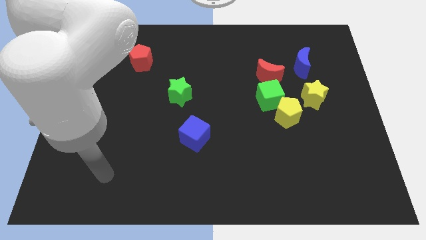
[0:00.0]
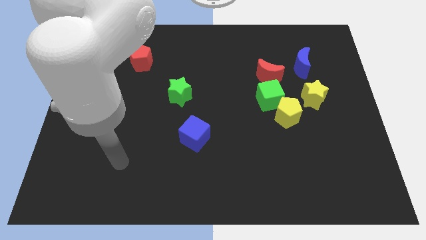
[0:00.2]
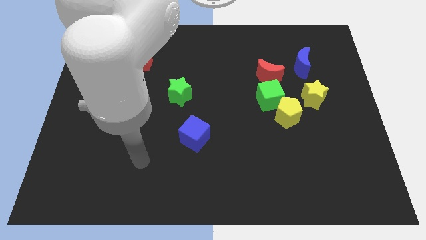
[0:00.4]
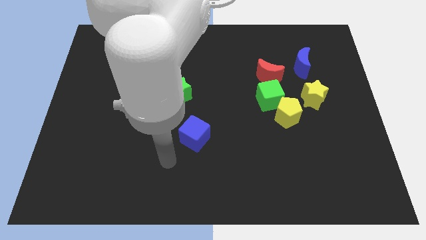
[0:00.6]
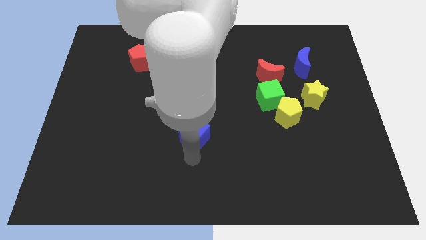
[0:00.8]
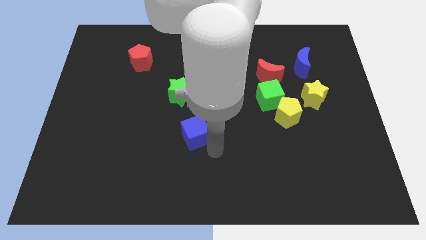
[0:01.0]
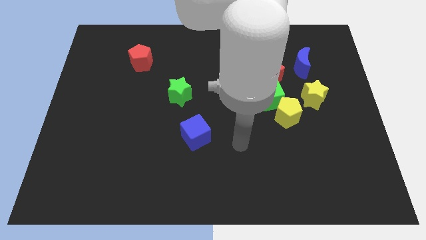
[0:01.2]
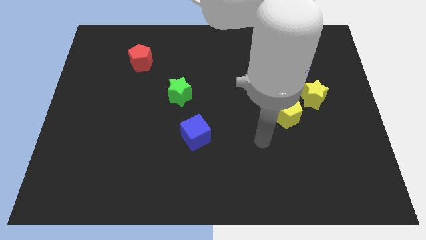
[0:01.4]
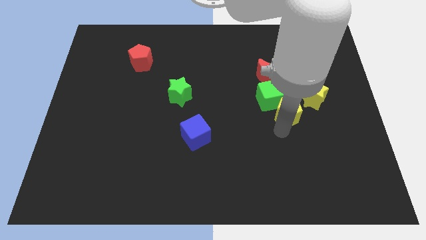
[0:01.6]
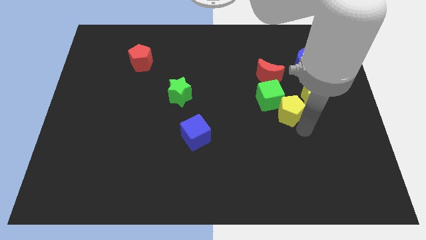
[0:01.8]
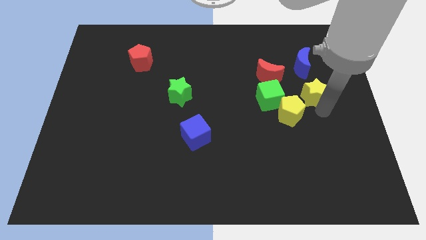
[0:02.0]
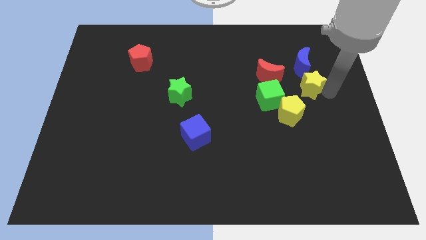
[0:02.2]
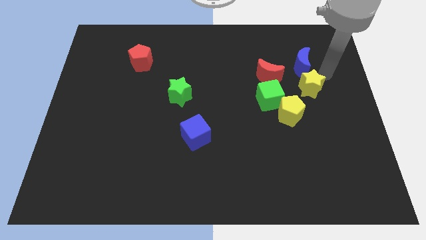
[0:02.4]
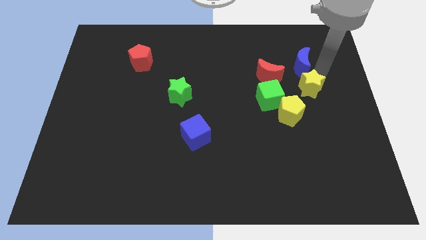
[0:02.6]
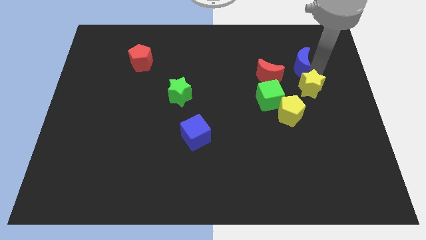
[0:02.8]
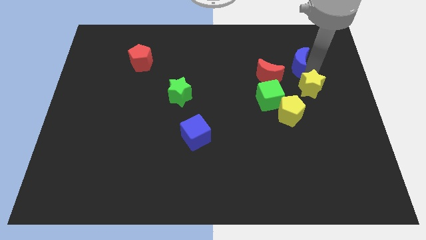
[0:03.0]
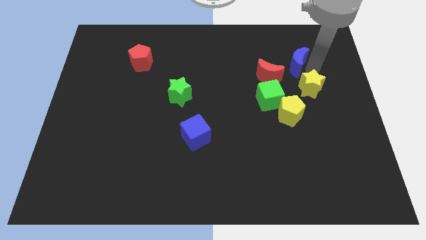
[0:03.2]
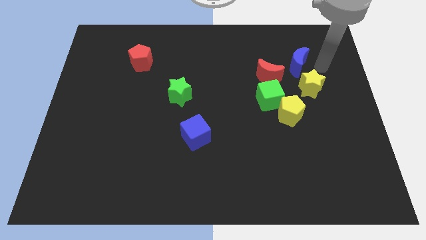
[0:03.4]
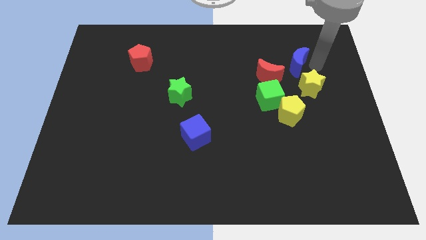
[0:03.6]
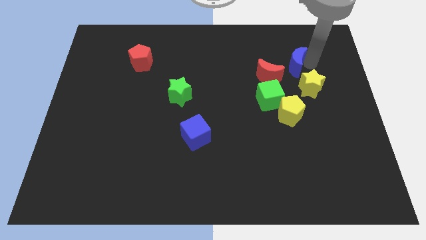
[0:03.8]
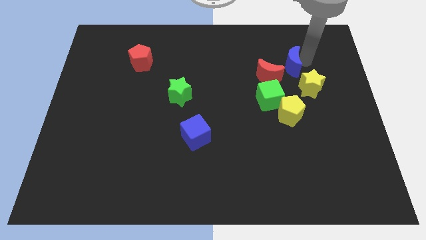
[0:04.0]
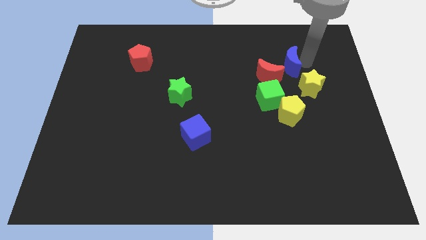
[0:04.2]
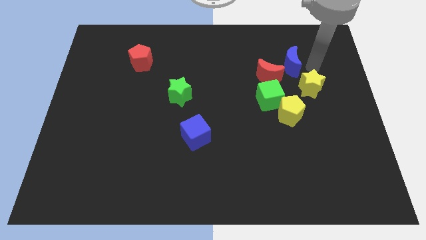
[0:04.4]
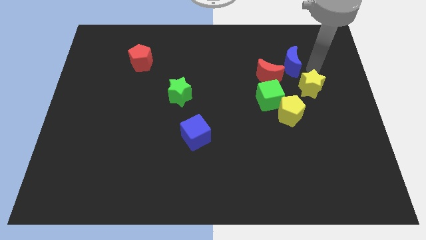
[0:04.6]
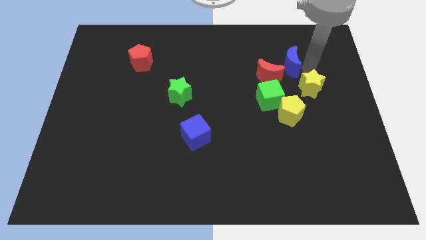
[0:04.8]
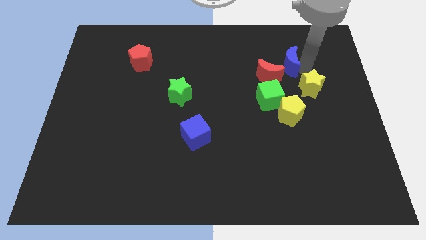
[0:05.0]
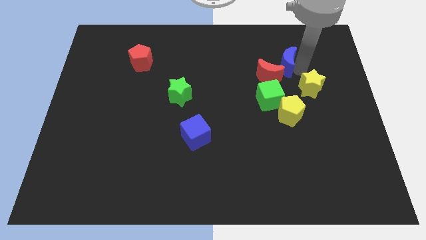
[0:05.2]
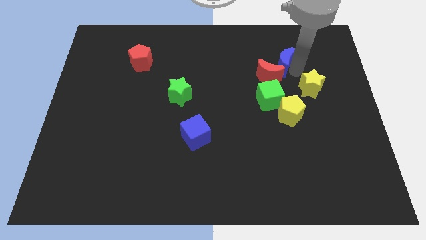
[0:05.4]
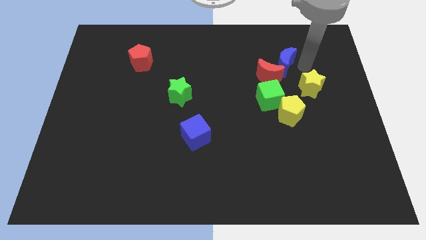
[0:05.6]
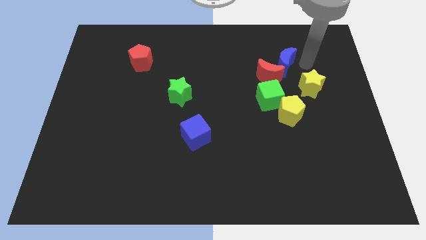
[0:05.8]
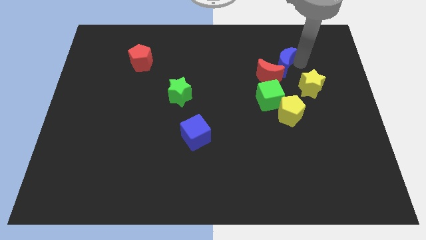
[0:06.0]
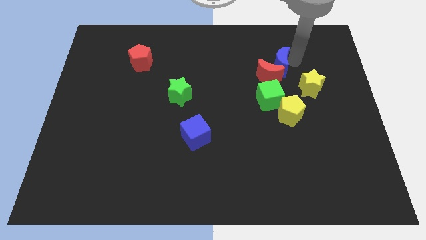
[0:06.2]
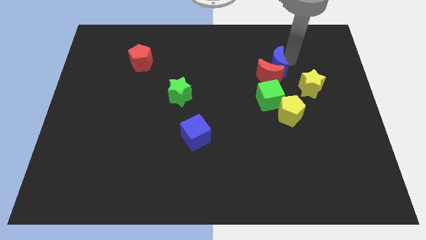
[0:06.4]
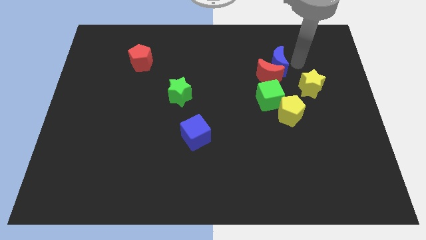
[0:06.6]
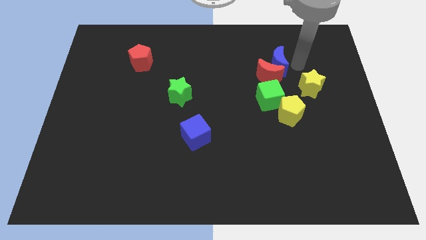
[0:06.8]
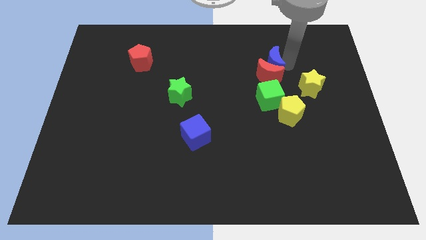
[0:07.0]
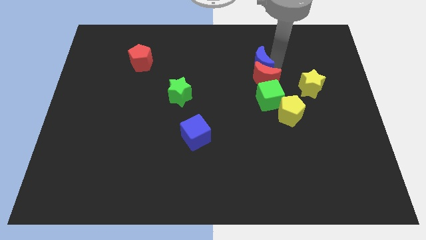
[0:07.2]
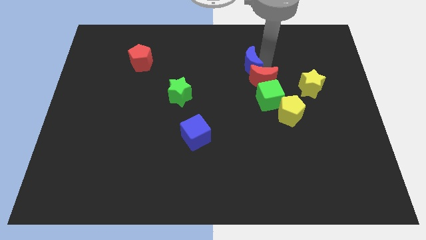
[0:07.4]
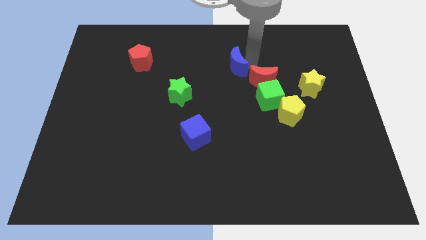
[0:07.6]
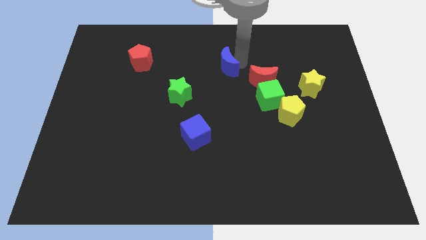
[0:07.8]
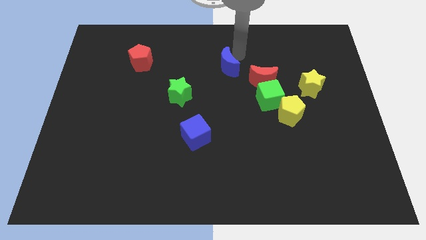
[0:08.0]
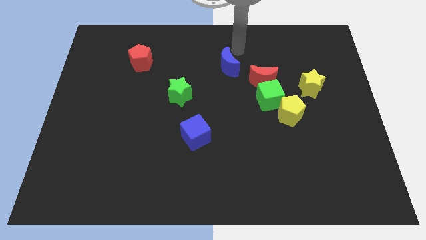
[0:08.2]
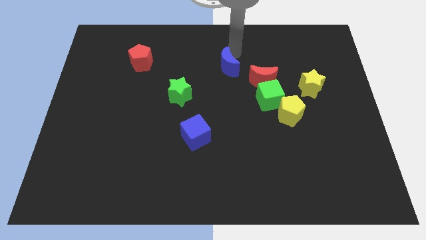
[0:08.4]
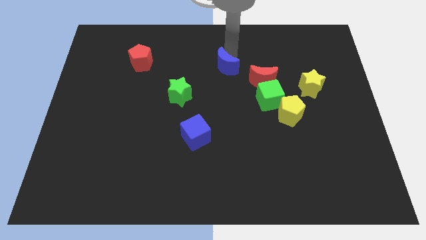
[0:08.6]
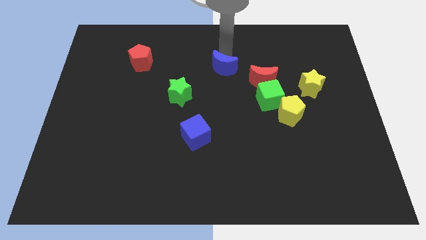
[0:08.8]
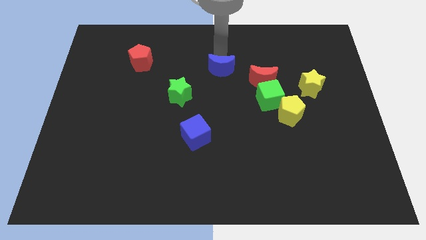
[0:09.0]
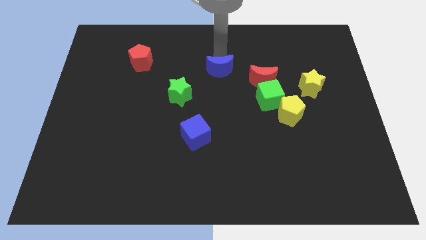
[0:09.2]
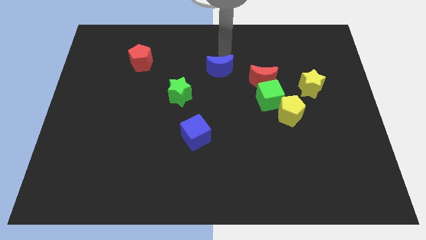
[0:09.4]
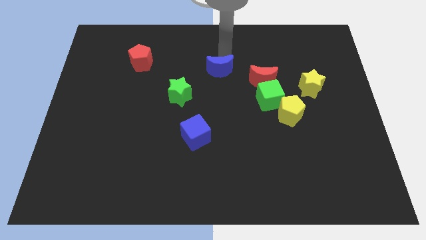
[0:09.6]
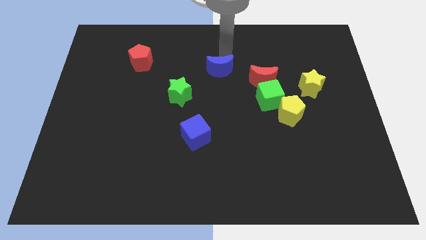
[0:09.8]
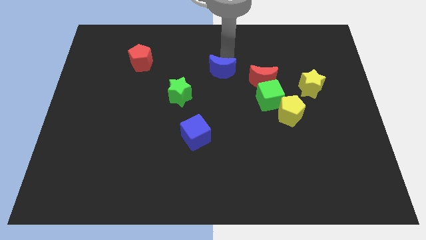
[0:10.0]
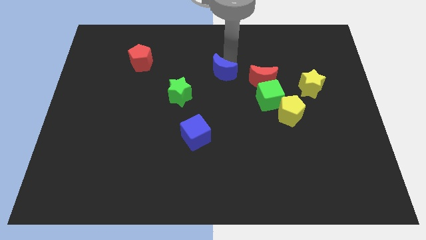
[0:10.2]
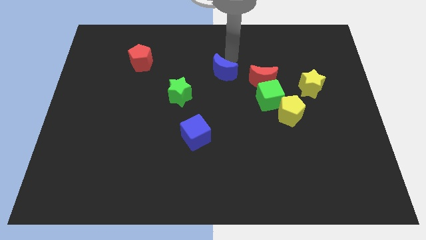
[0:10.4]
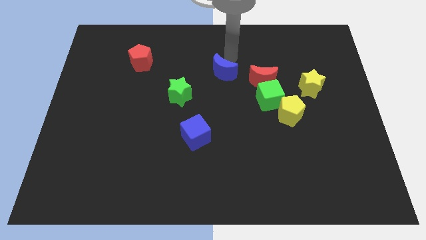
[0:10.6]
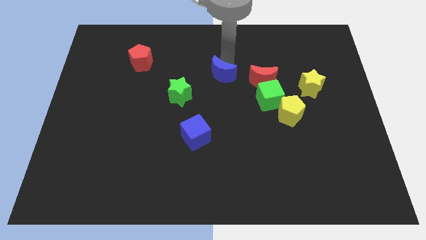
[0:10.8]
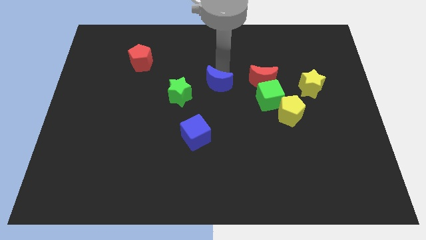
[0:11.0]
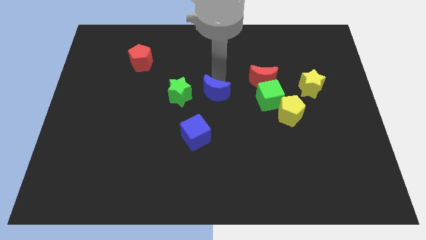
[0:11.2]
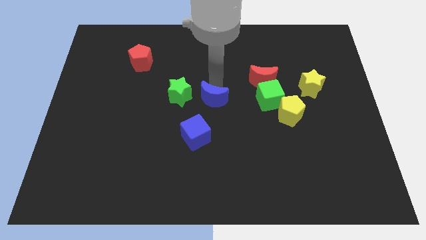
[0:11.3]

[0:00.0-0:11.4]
slide the blue moon down and left

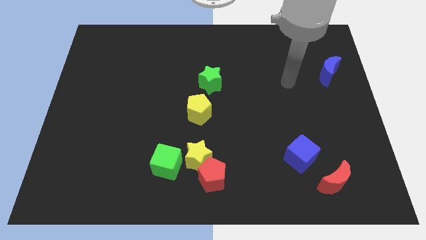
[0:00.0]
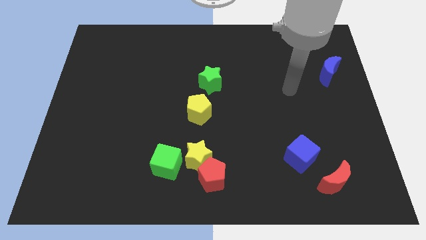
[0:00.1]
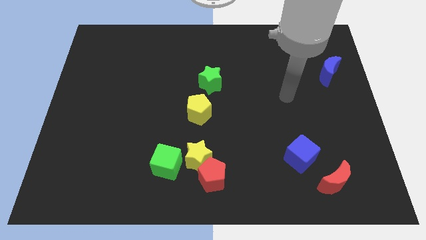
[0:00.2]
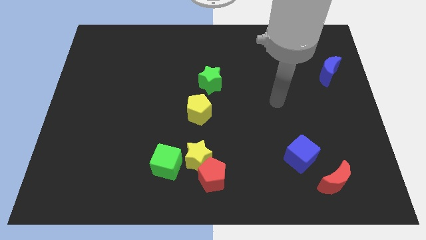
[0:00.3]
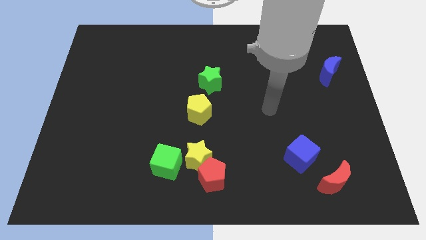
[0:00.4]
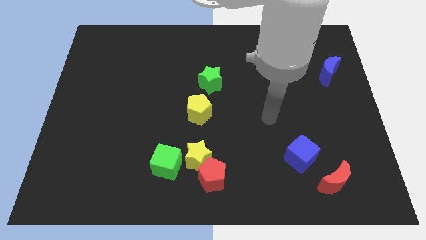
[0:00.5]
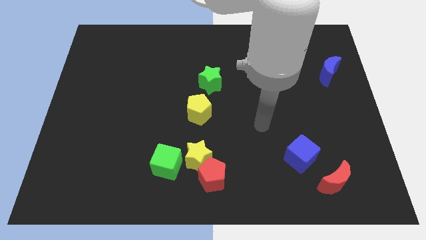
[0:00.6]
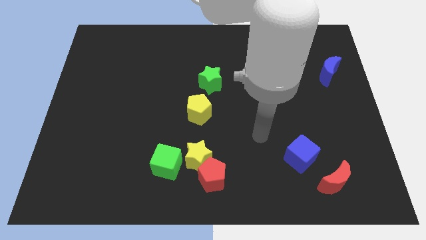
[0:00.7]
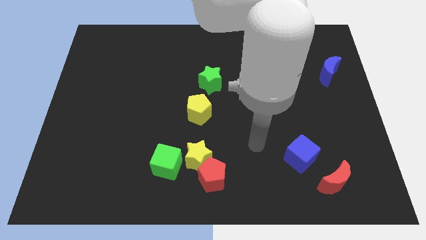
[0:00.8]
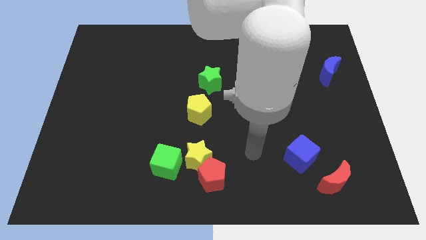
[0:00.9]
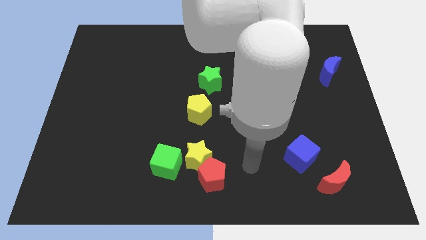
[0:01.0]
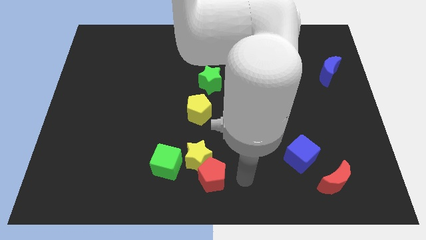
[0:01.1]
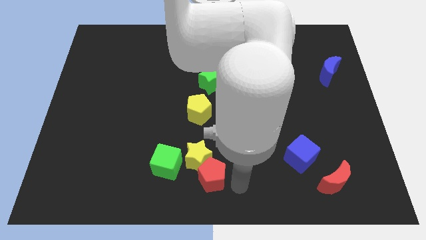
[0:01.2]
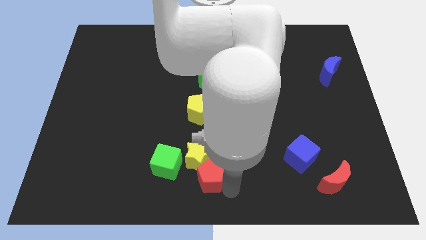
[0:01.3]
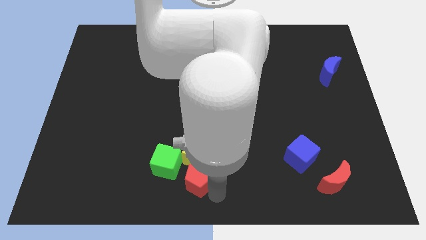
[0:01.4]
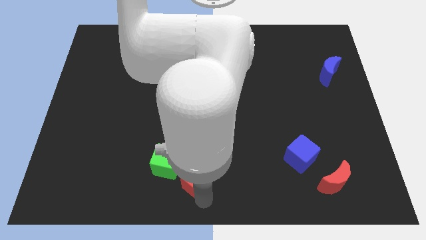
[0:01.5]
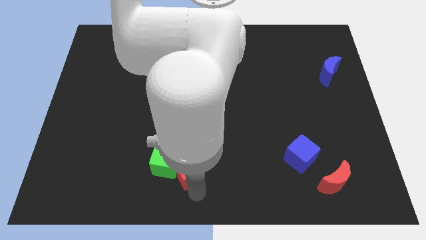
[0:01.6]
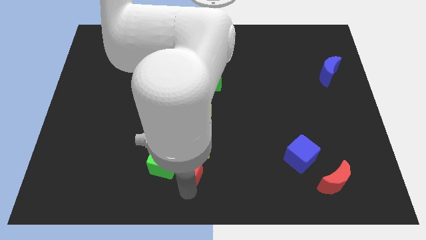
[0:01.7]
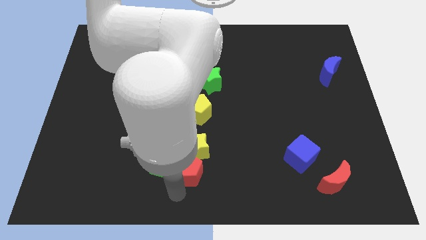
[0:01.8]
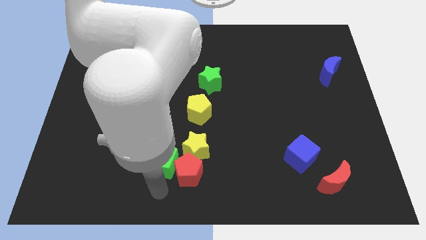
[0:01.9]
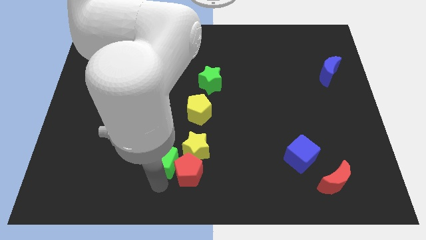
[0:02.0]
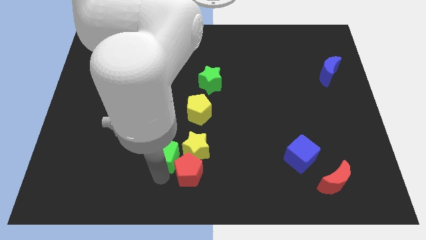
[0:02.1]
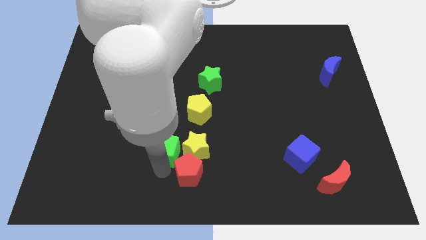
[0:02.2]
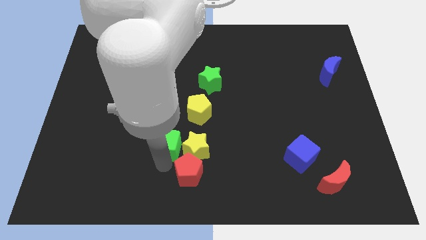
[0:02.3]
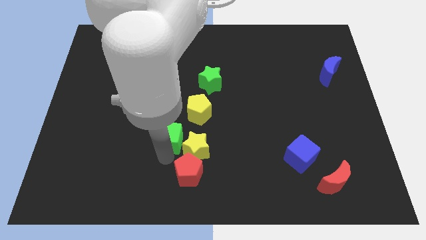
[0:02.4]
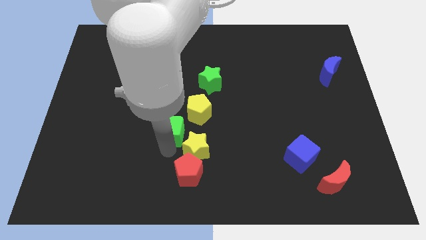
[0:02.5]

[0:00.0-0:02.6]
slightly slide the green cube up
